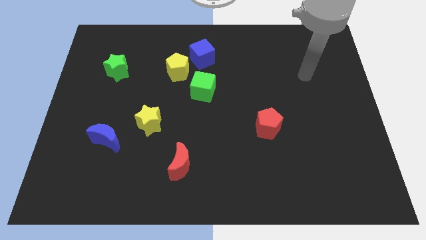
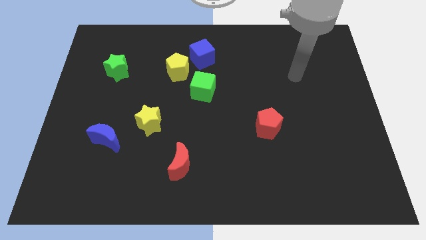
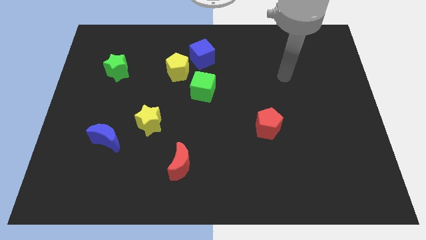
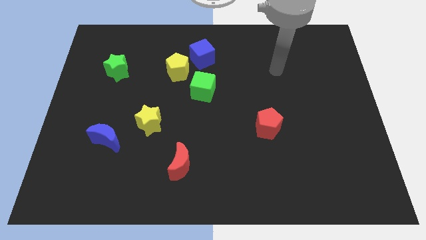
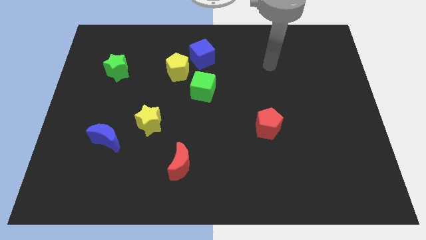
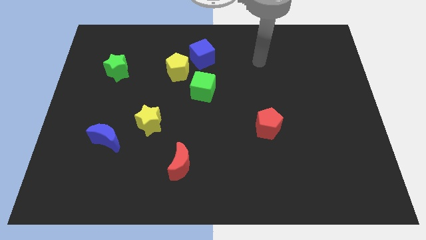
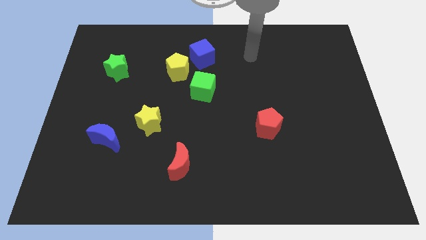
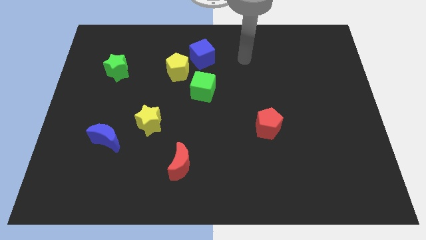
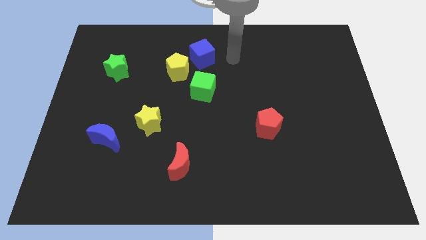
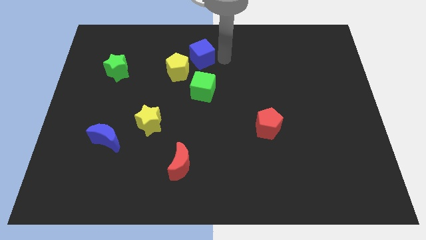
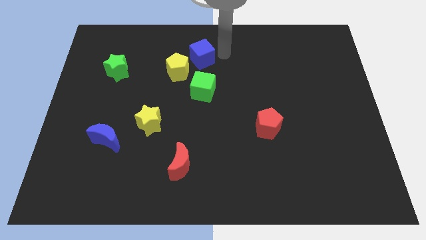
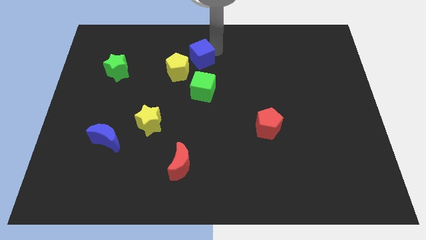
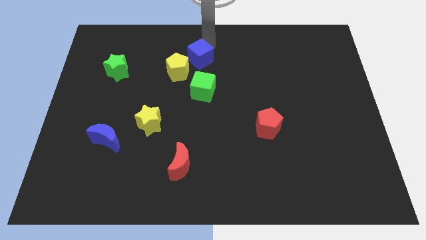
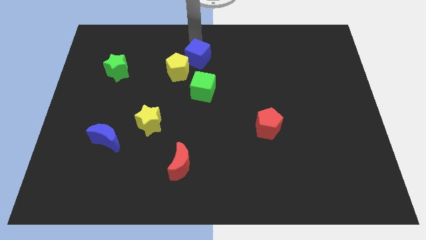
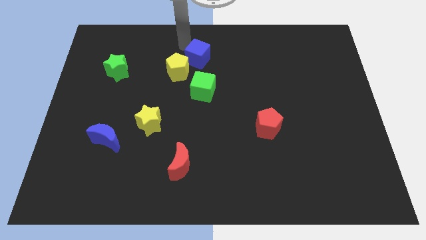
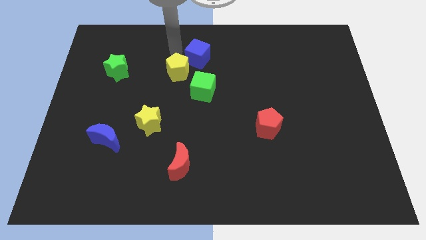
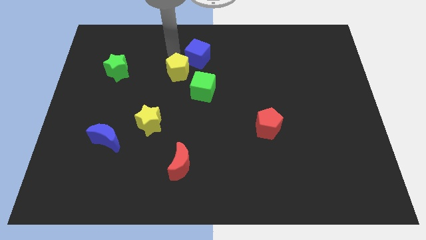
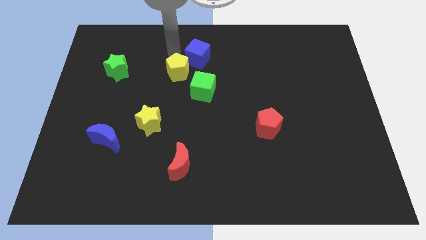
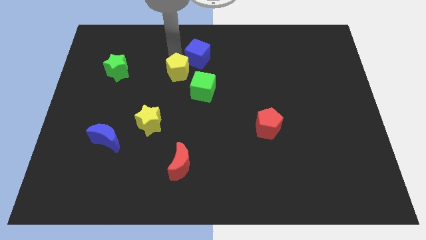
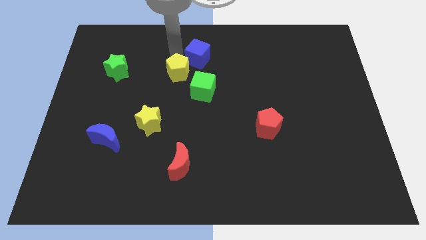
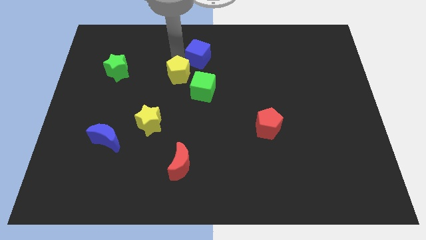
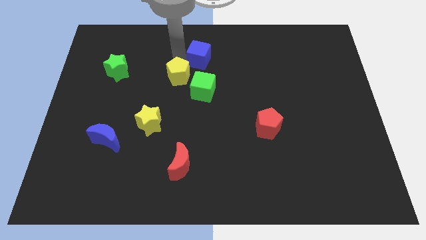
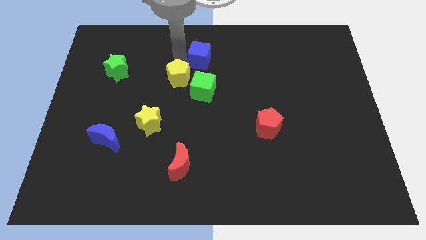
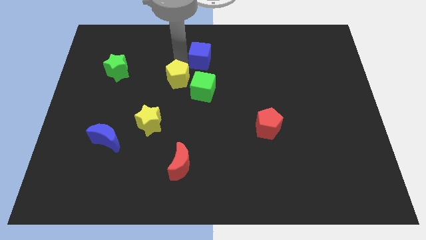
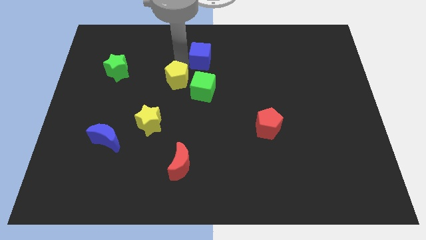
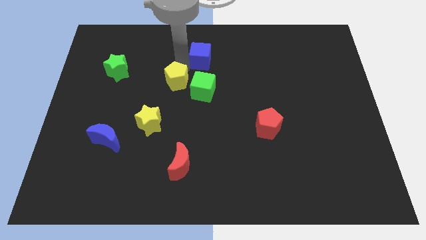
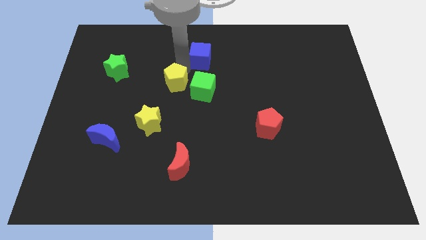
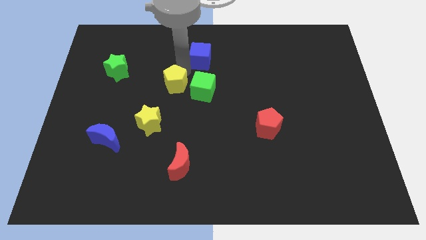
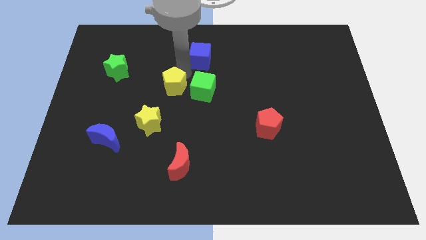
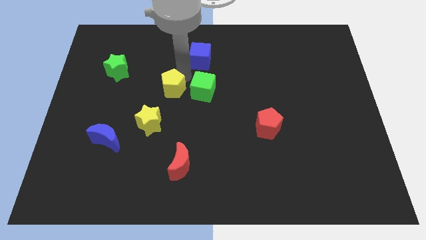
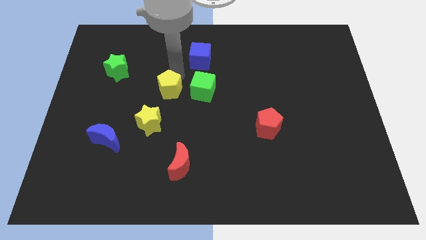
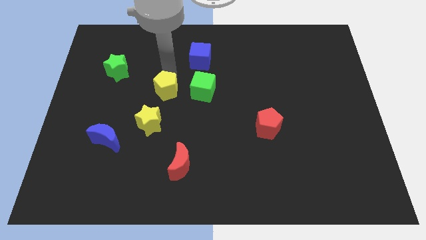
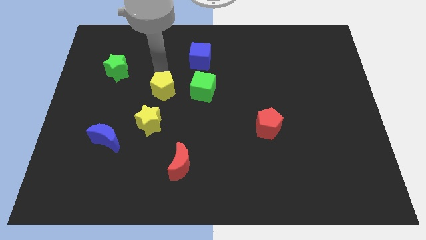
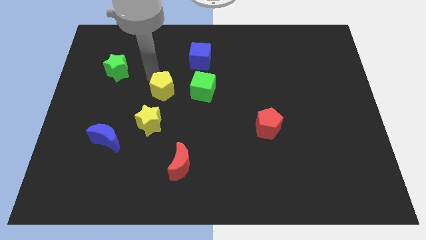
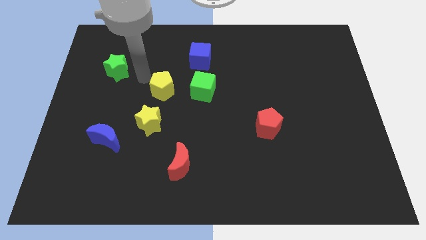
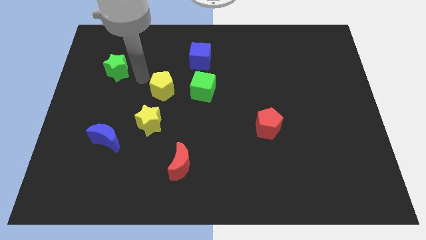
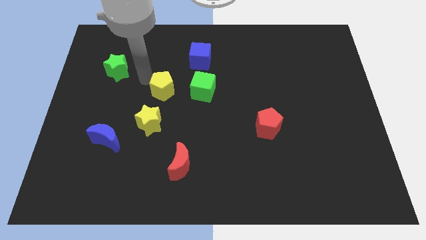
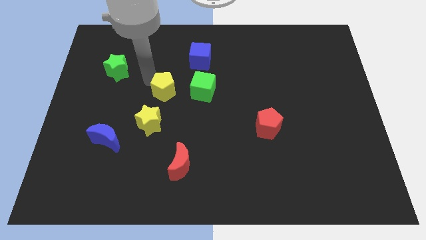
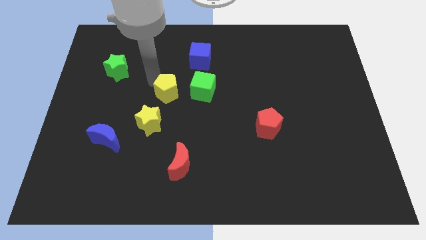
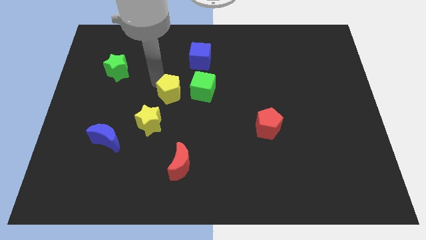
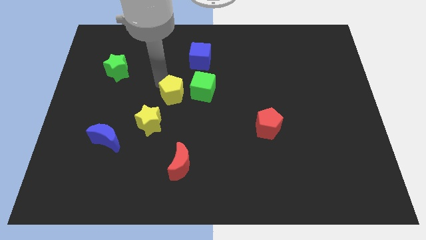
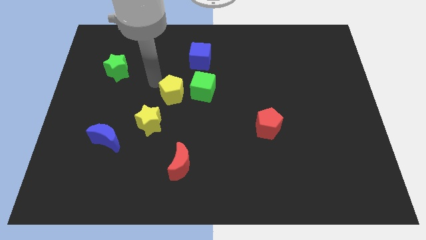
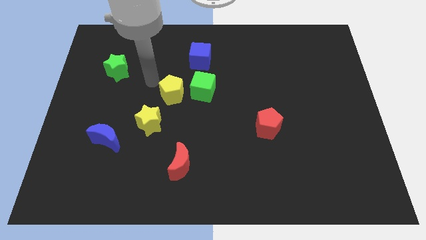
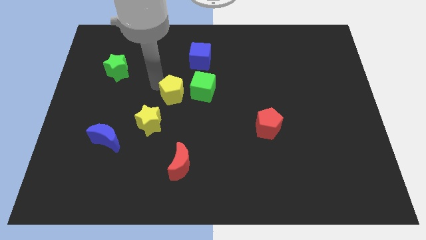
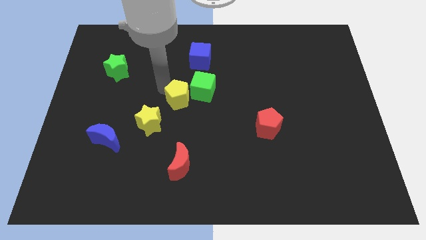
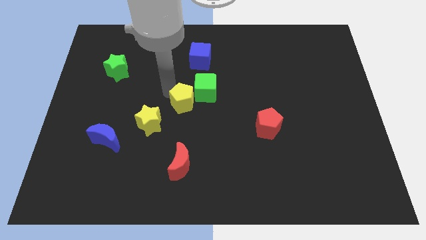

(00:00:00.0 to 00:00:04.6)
push the yellow pentagon downwards and then right somewhat

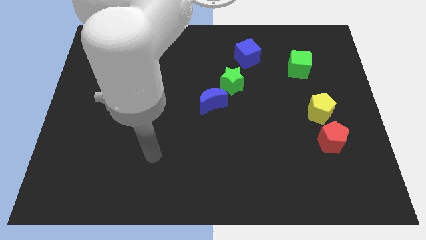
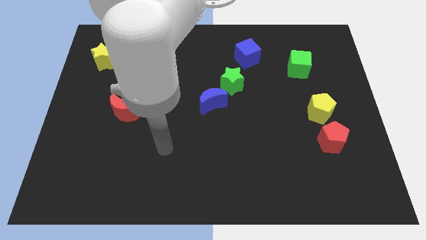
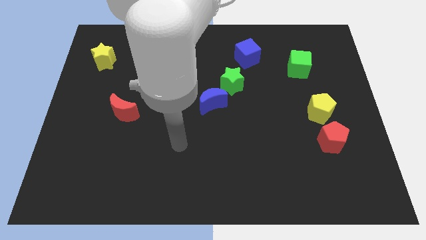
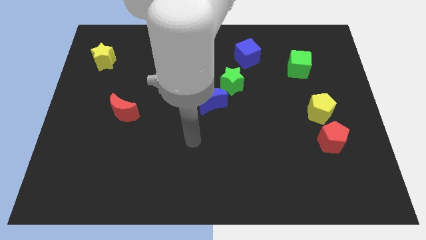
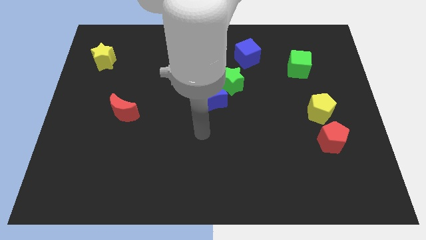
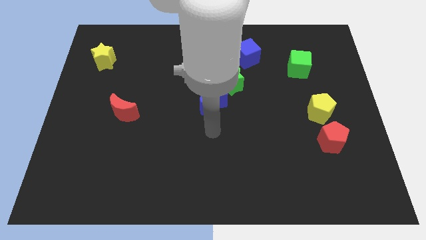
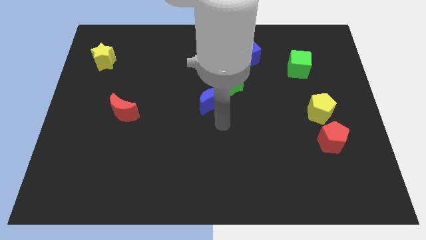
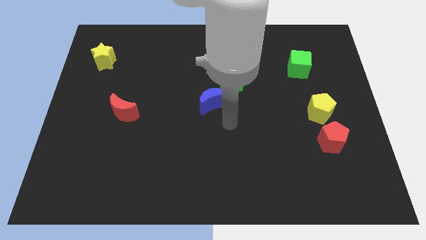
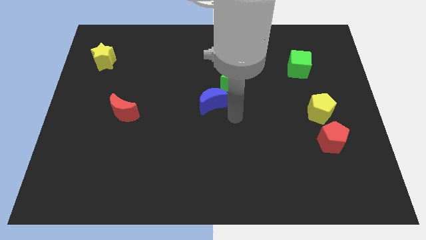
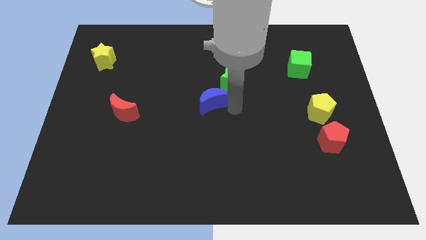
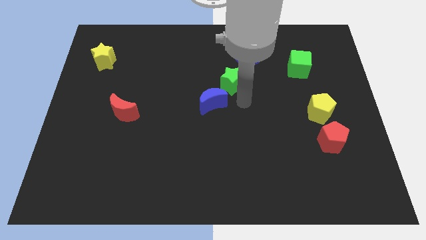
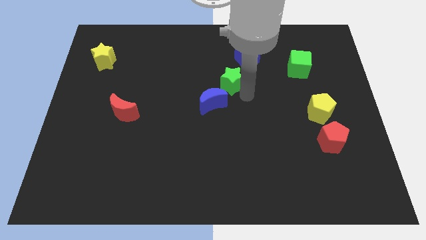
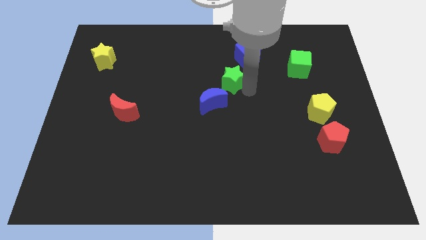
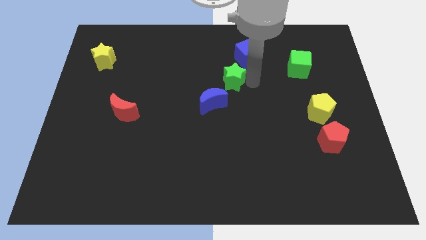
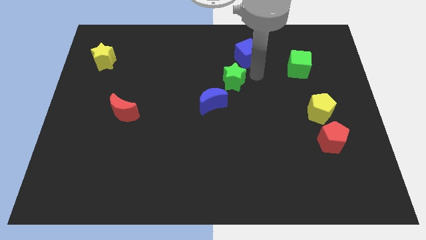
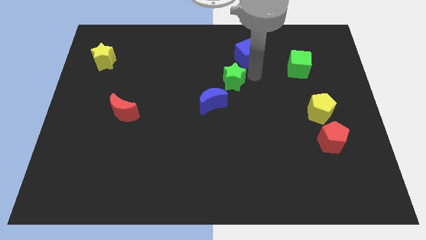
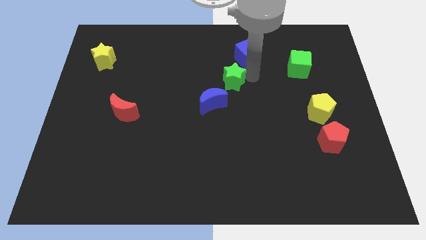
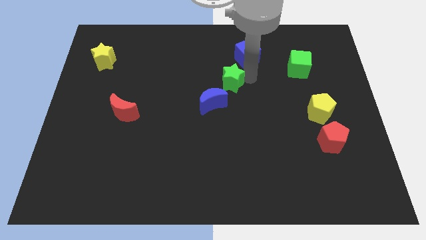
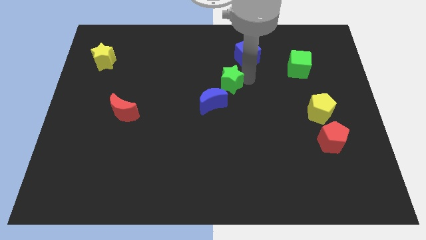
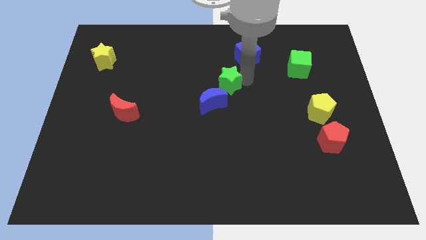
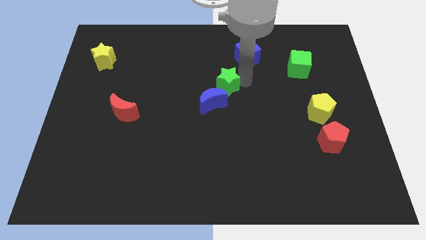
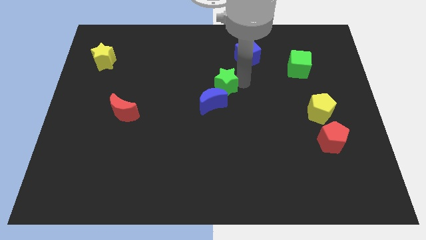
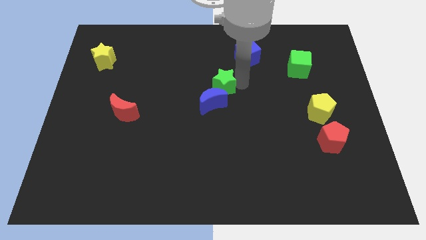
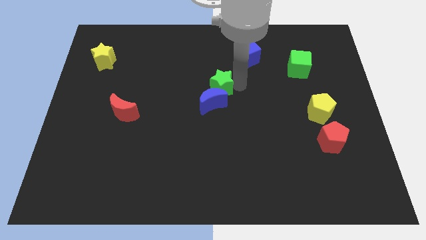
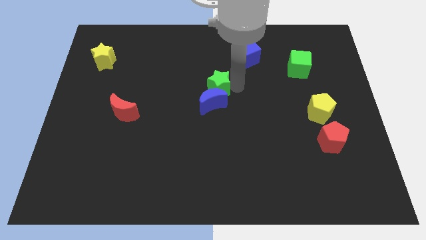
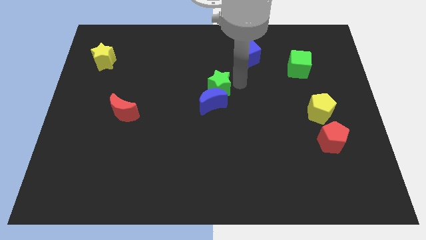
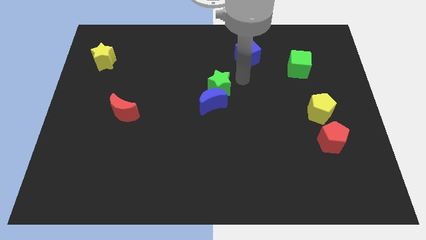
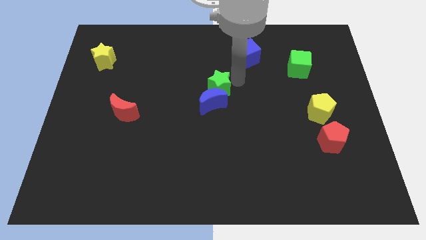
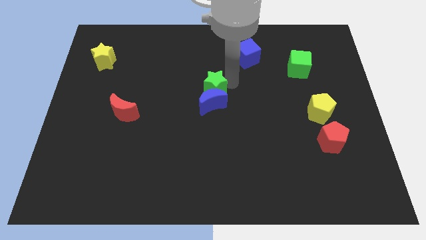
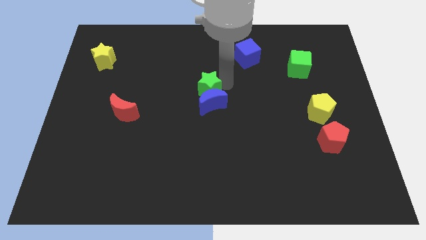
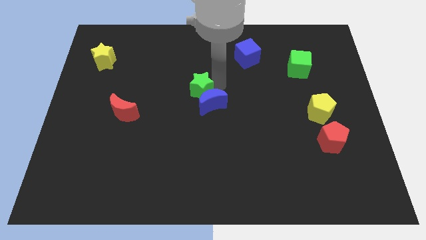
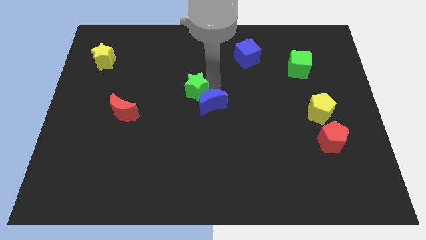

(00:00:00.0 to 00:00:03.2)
slightly push the green star diagonally down and to the left
